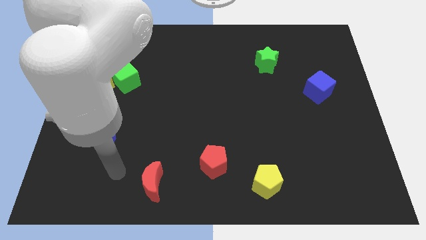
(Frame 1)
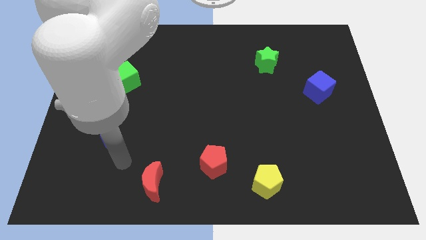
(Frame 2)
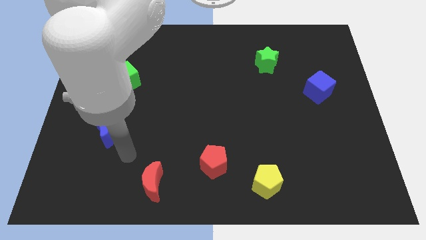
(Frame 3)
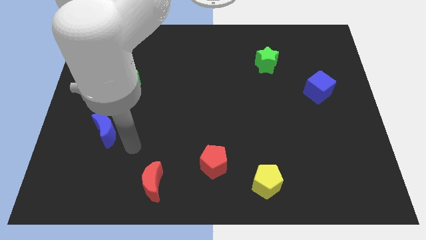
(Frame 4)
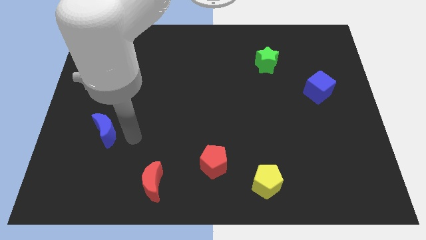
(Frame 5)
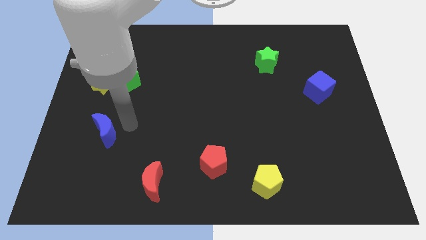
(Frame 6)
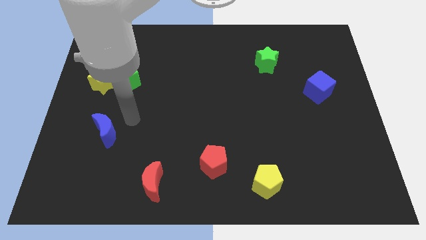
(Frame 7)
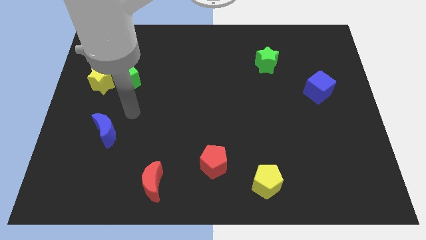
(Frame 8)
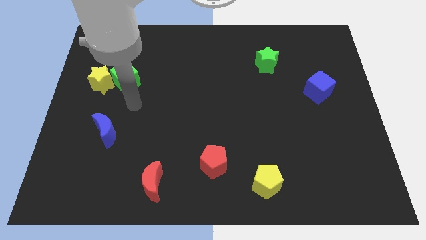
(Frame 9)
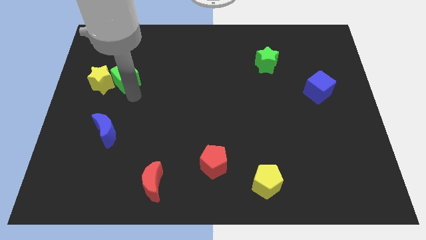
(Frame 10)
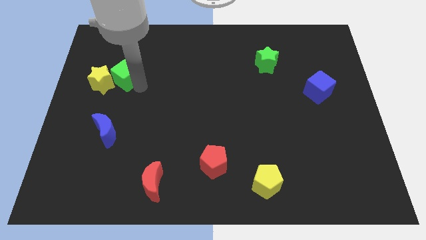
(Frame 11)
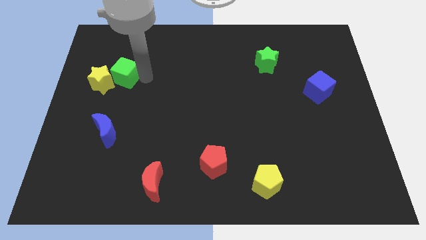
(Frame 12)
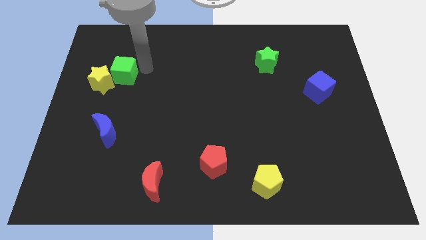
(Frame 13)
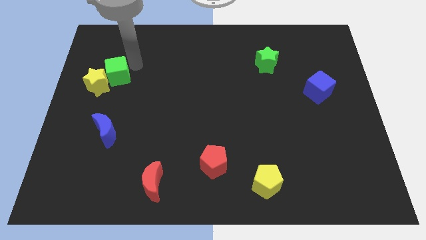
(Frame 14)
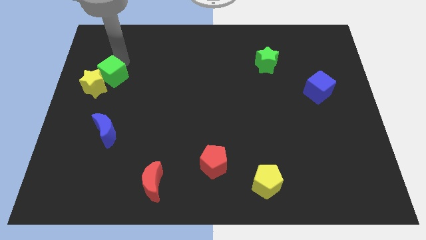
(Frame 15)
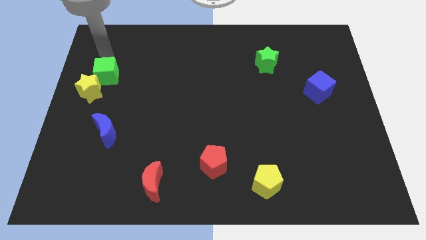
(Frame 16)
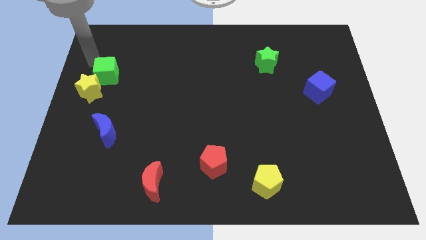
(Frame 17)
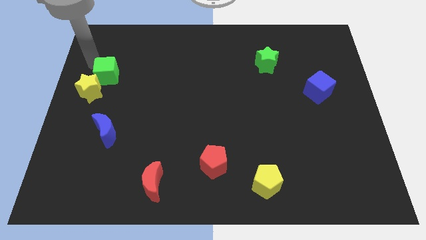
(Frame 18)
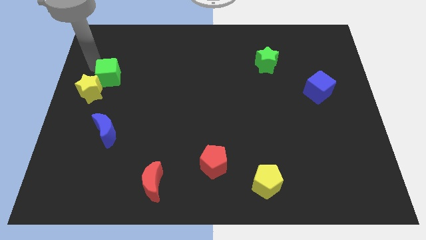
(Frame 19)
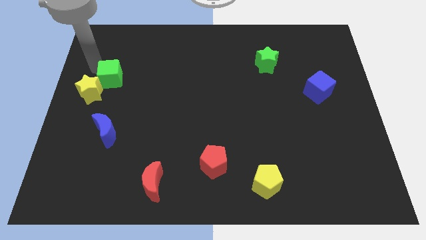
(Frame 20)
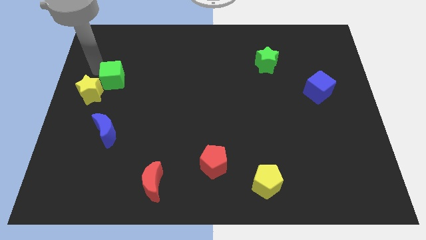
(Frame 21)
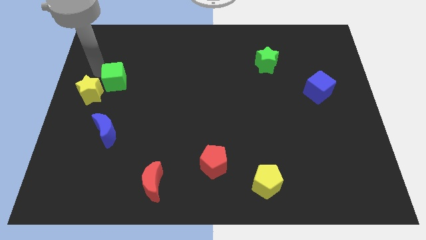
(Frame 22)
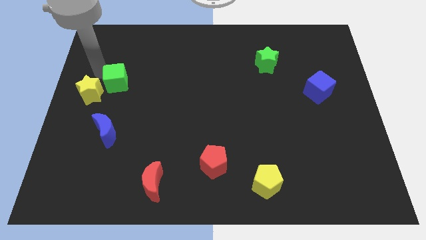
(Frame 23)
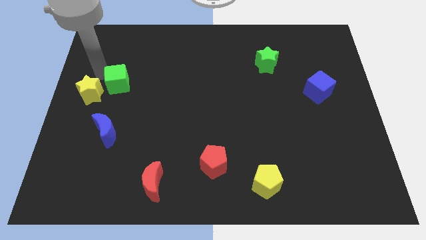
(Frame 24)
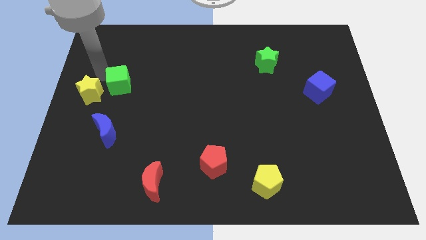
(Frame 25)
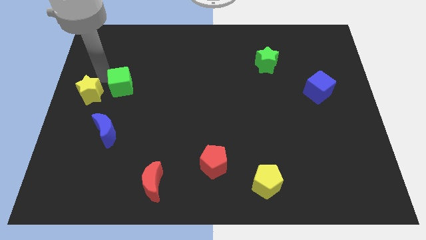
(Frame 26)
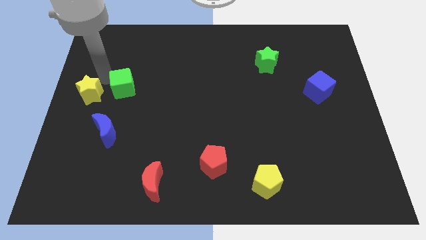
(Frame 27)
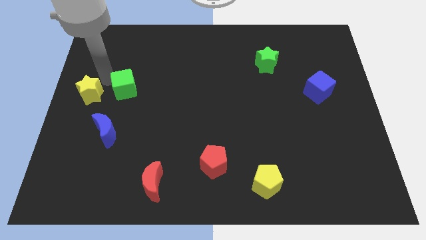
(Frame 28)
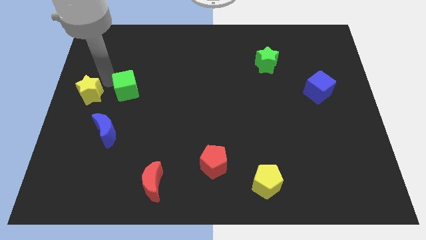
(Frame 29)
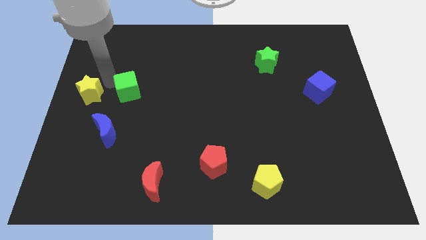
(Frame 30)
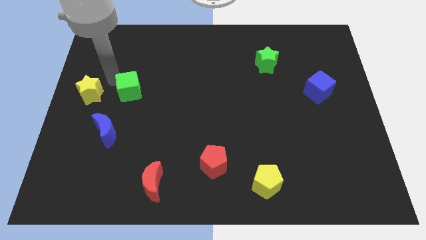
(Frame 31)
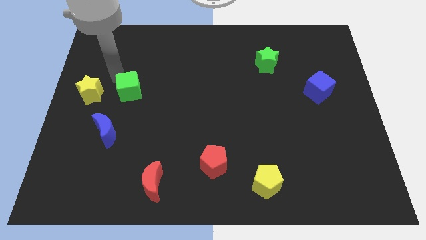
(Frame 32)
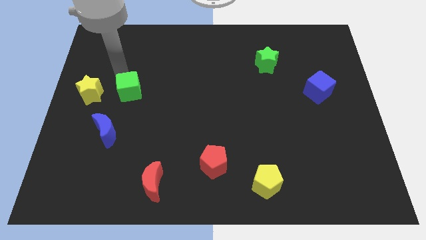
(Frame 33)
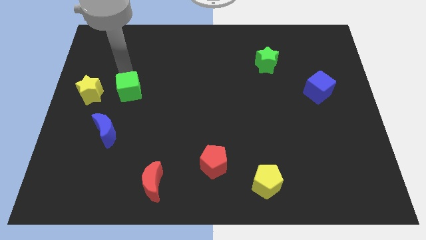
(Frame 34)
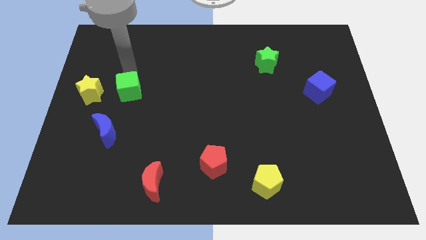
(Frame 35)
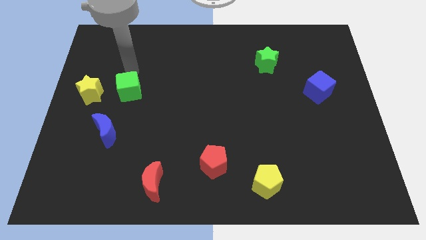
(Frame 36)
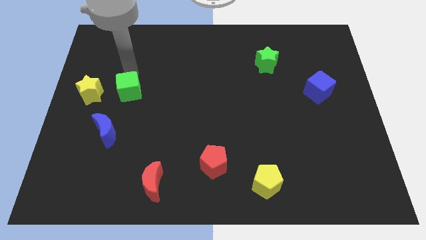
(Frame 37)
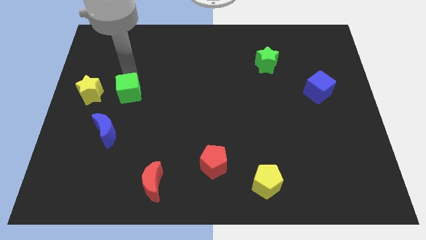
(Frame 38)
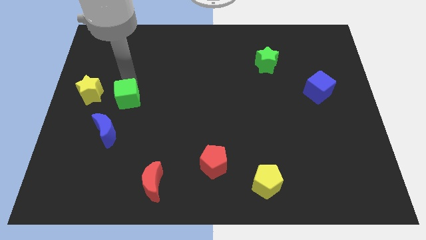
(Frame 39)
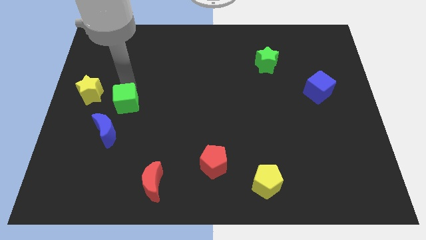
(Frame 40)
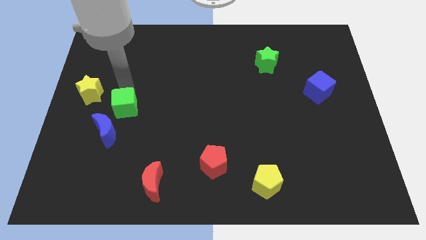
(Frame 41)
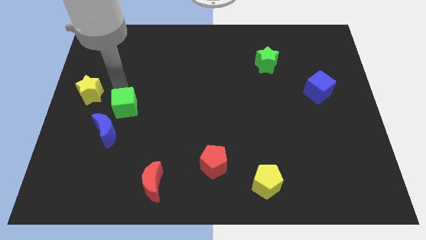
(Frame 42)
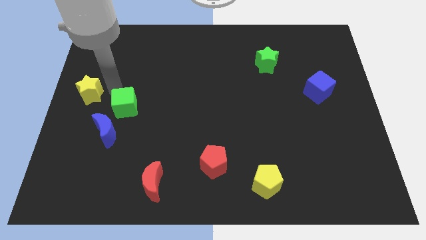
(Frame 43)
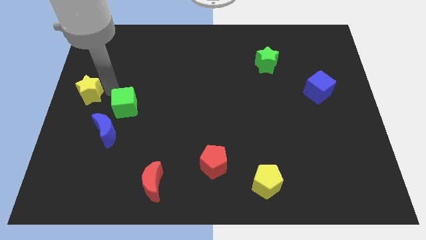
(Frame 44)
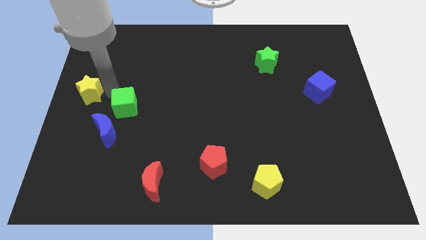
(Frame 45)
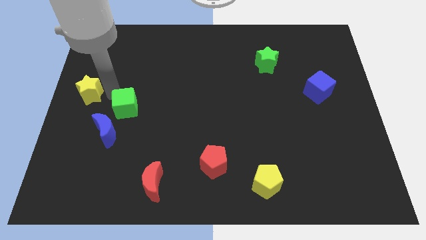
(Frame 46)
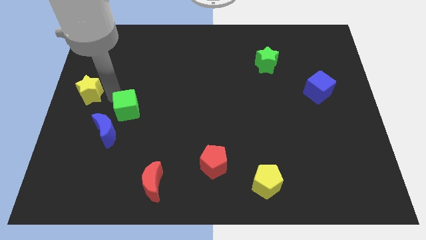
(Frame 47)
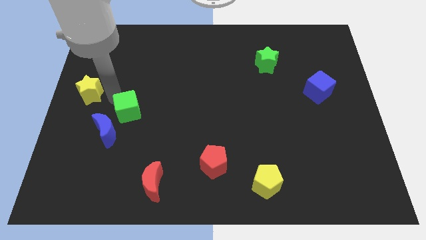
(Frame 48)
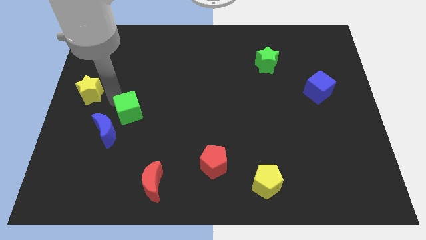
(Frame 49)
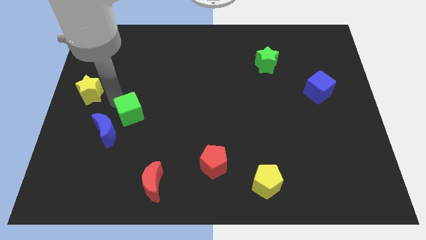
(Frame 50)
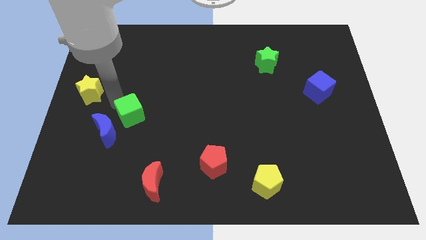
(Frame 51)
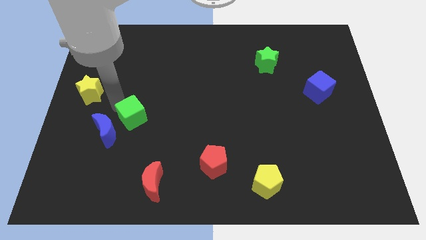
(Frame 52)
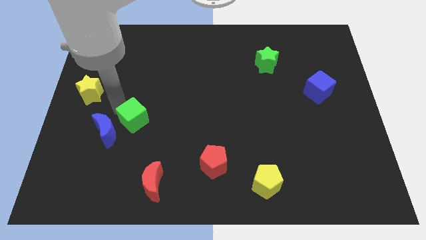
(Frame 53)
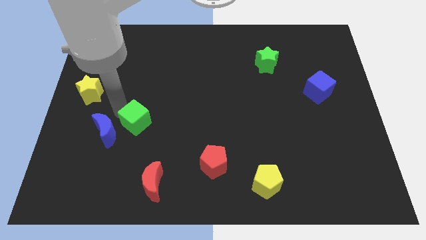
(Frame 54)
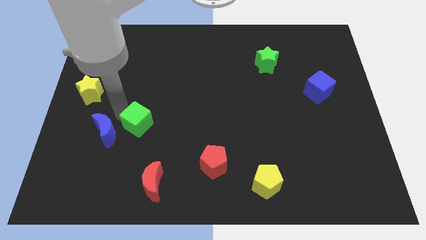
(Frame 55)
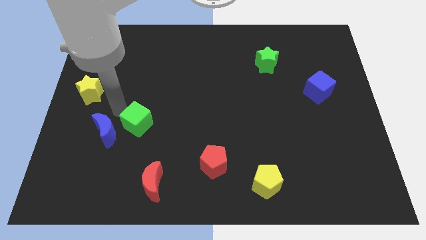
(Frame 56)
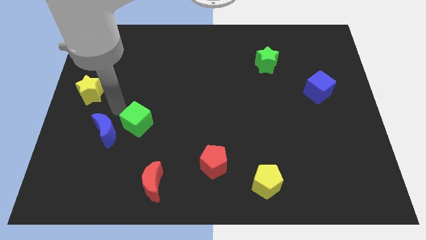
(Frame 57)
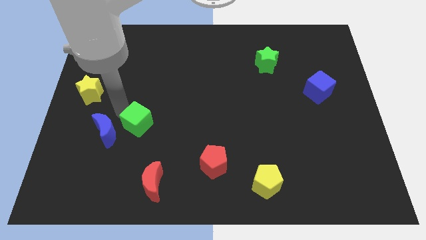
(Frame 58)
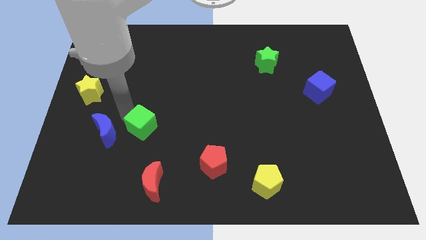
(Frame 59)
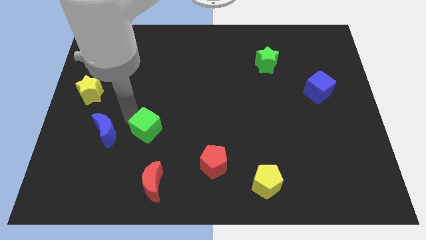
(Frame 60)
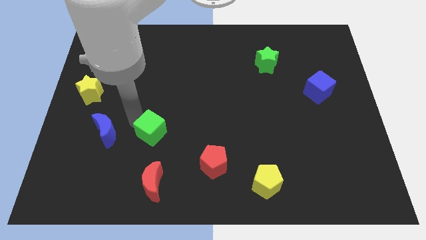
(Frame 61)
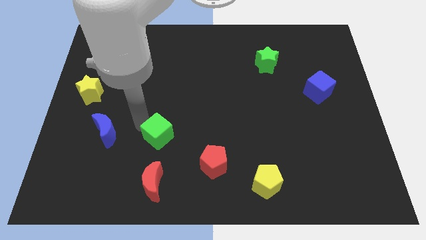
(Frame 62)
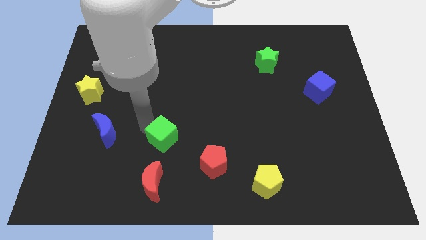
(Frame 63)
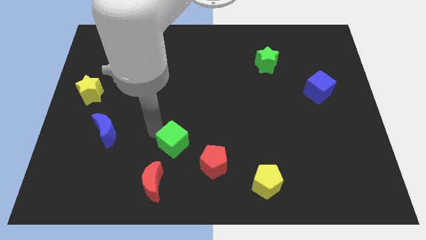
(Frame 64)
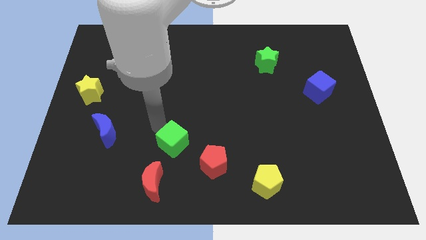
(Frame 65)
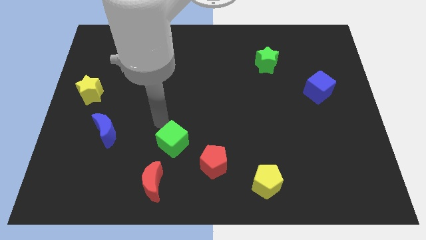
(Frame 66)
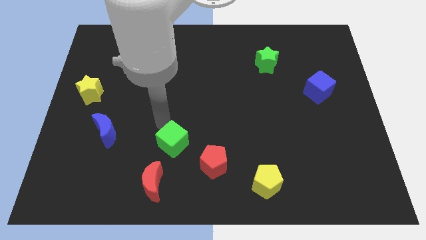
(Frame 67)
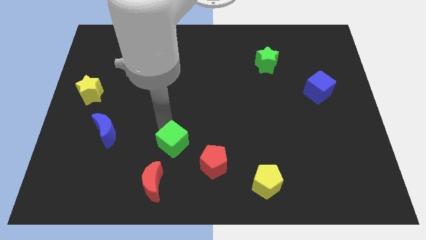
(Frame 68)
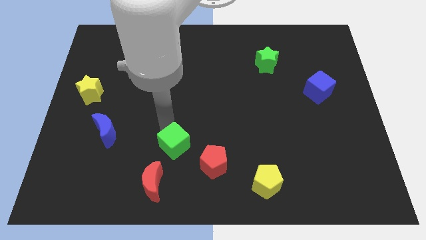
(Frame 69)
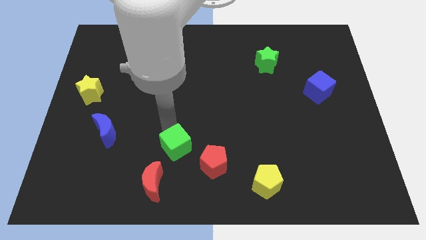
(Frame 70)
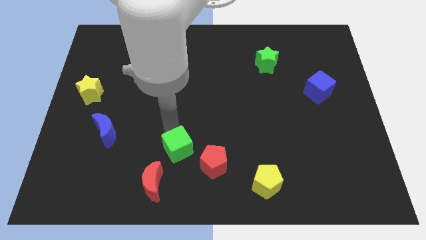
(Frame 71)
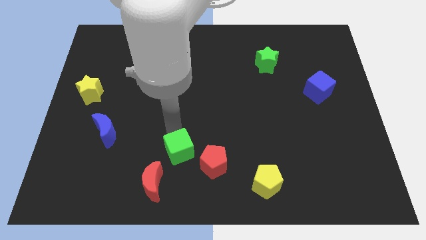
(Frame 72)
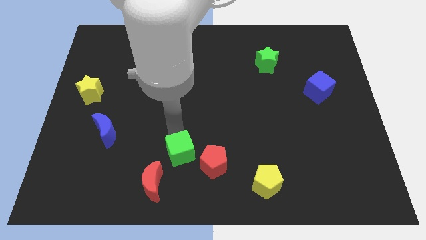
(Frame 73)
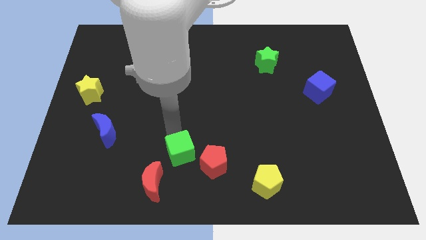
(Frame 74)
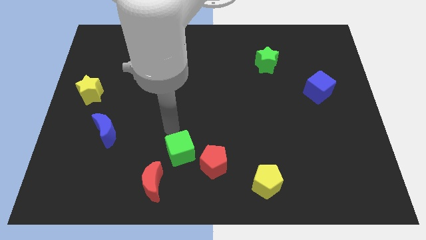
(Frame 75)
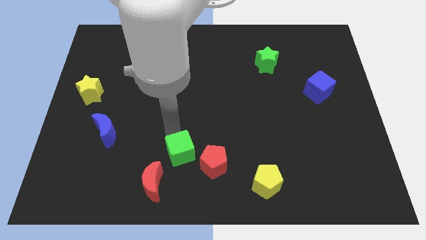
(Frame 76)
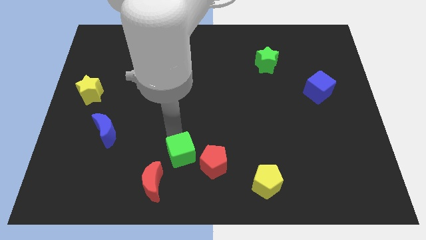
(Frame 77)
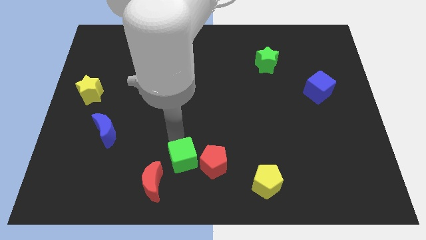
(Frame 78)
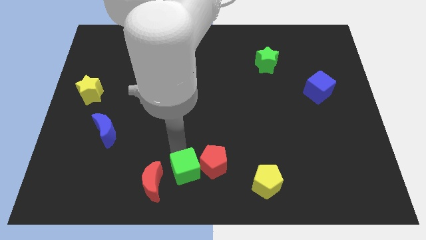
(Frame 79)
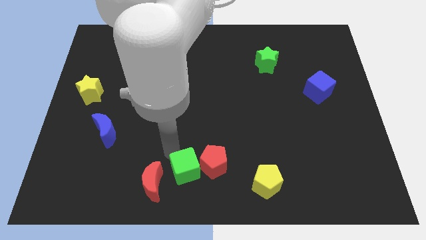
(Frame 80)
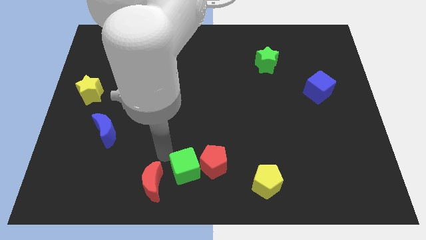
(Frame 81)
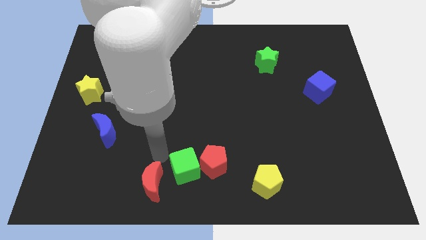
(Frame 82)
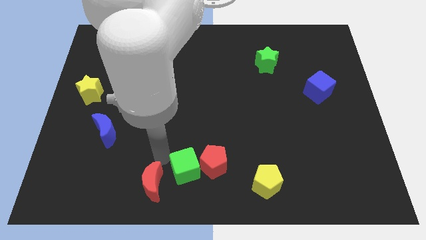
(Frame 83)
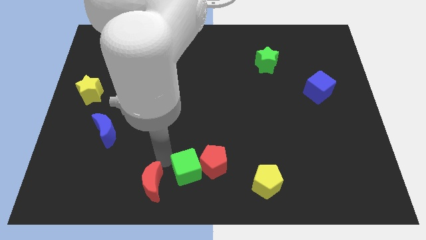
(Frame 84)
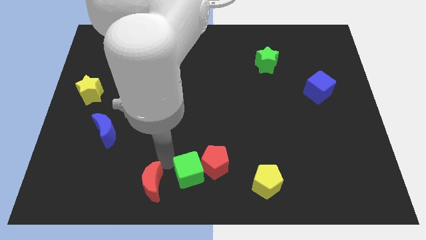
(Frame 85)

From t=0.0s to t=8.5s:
move the green cube left of the yellow pentagon
